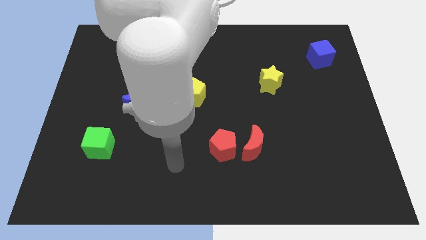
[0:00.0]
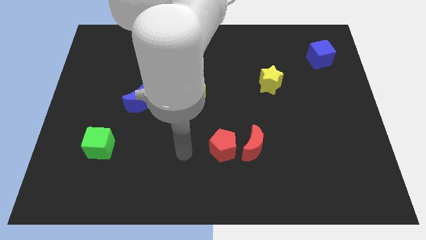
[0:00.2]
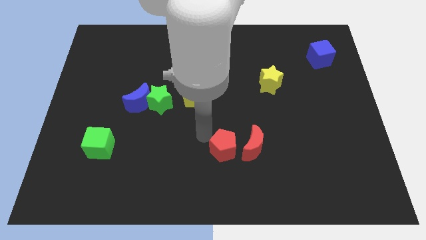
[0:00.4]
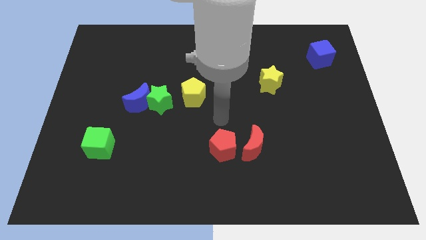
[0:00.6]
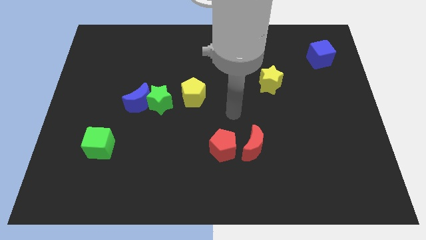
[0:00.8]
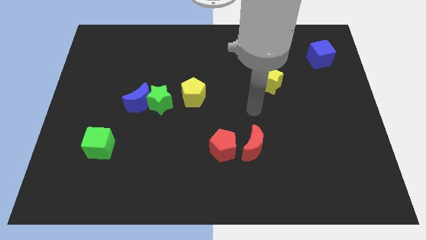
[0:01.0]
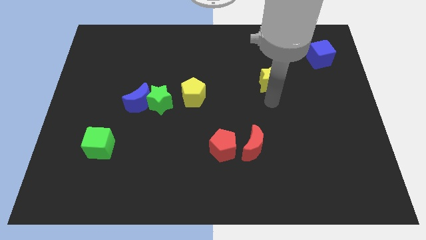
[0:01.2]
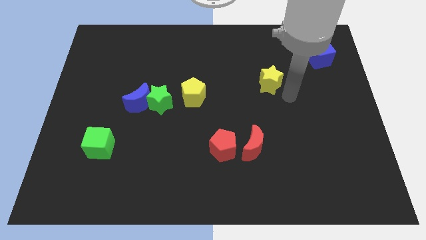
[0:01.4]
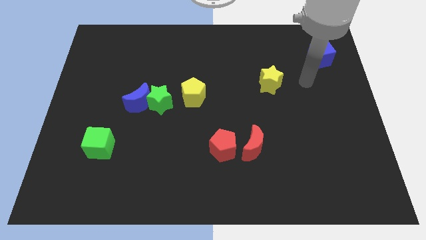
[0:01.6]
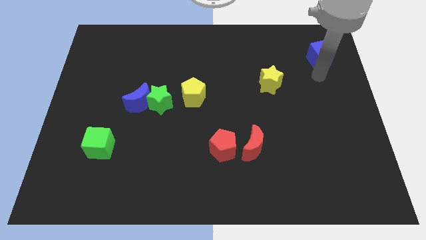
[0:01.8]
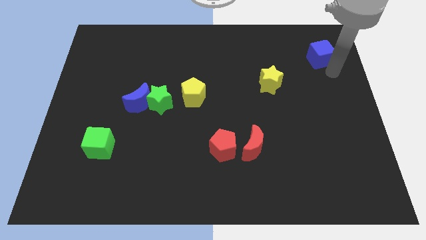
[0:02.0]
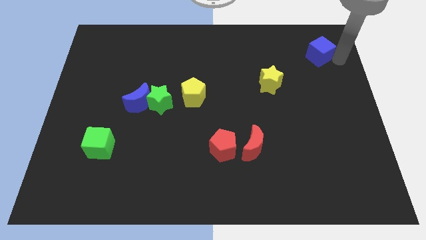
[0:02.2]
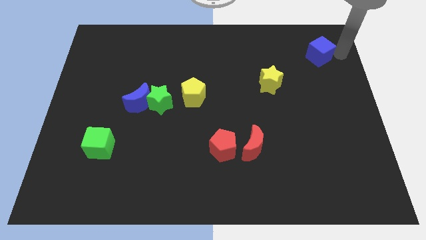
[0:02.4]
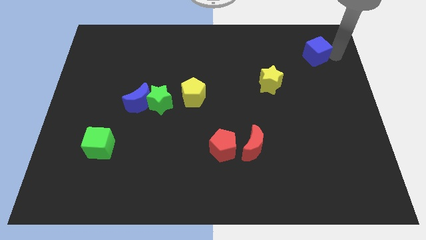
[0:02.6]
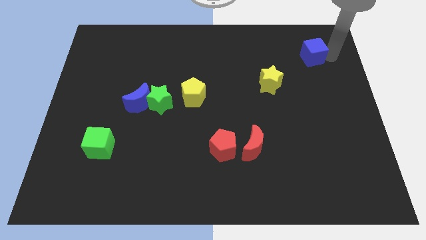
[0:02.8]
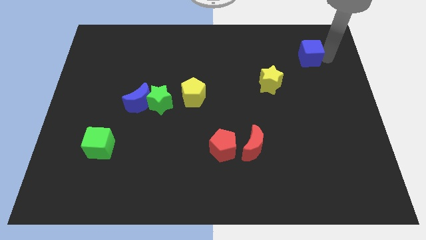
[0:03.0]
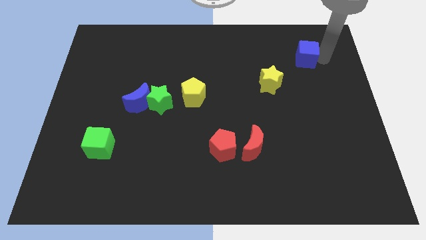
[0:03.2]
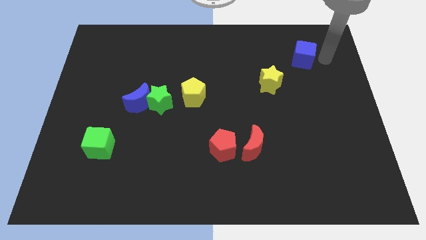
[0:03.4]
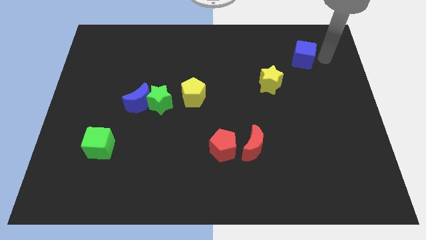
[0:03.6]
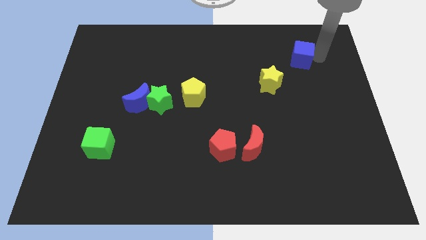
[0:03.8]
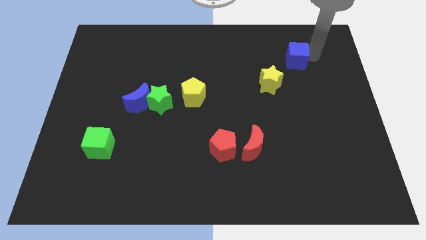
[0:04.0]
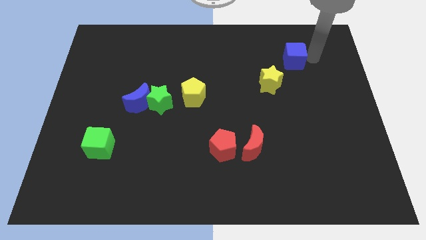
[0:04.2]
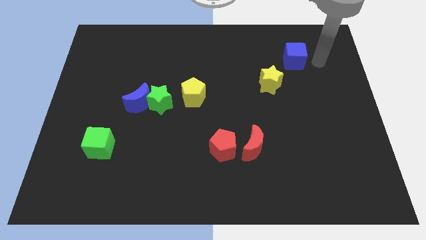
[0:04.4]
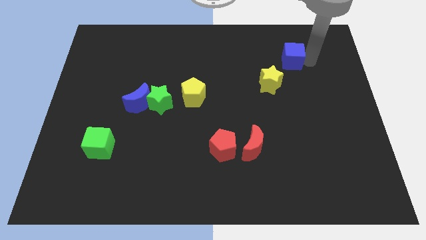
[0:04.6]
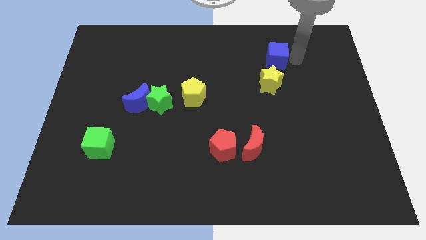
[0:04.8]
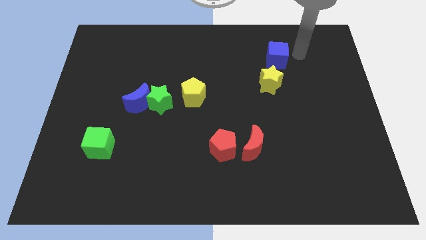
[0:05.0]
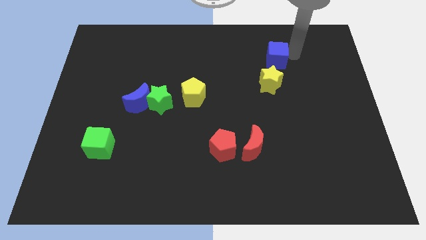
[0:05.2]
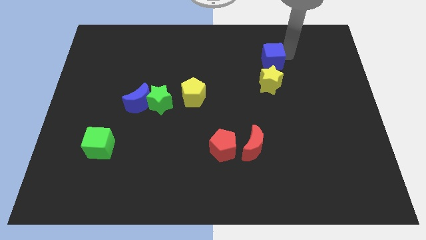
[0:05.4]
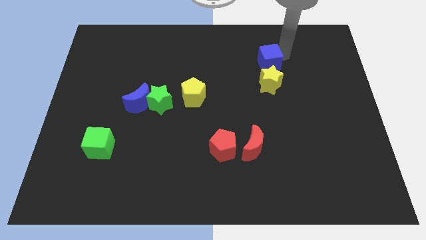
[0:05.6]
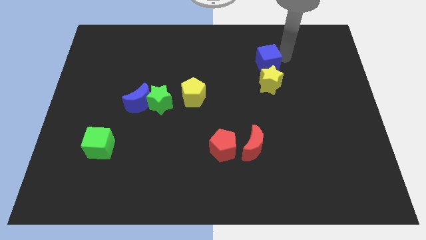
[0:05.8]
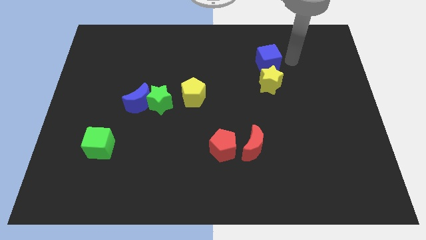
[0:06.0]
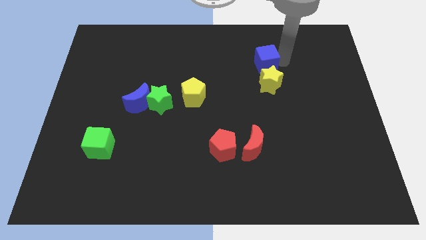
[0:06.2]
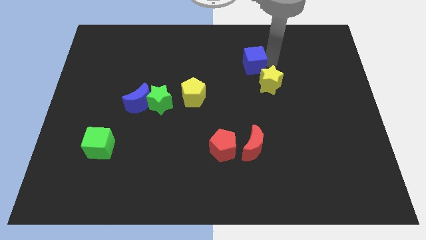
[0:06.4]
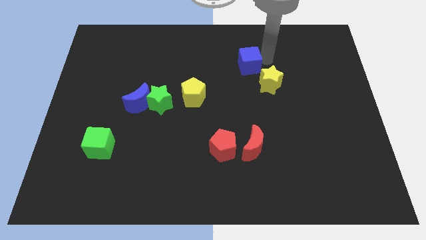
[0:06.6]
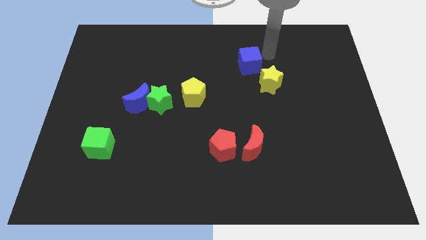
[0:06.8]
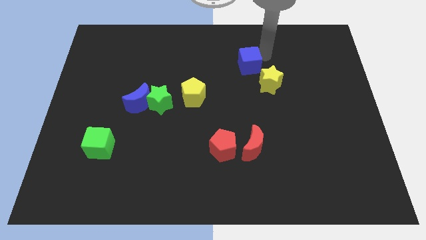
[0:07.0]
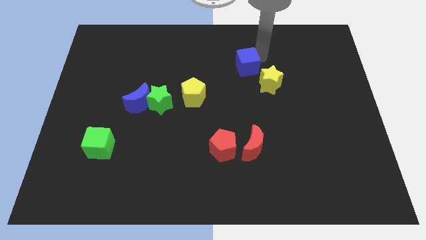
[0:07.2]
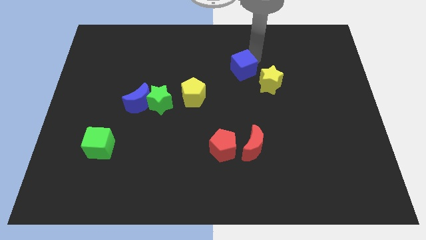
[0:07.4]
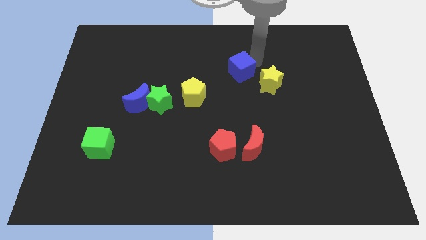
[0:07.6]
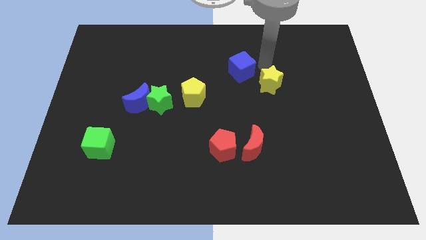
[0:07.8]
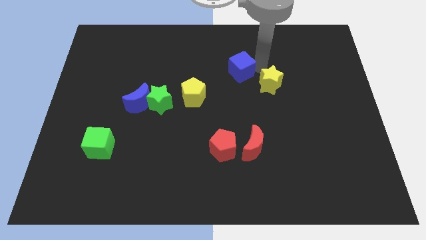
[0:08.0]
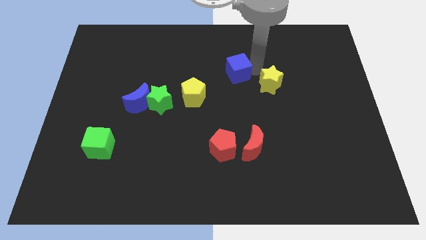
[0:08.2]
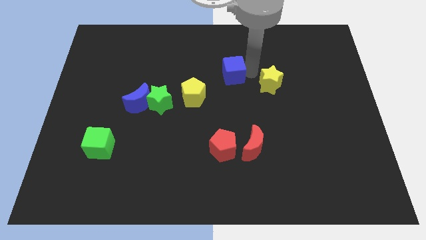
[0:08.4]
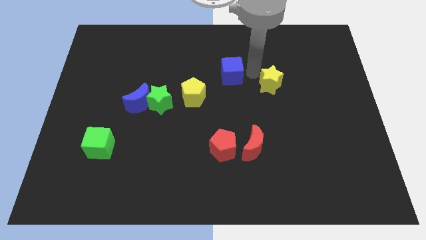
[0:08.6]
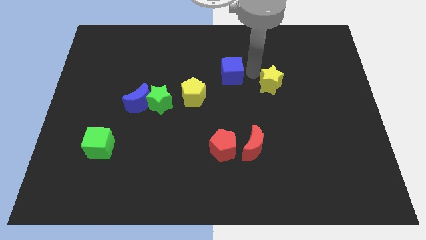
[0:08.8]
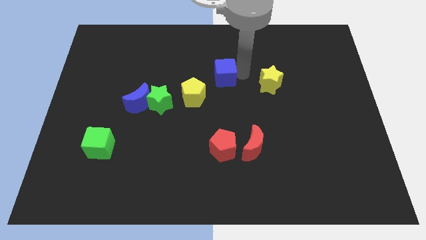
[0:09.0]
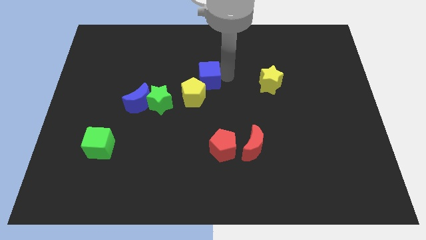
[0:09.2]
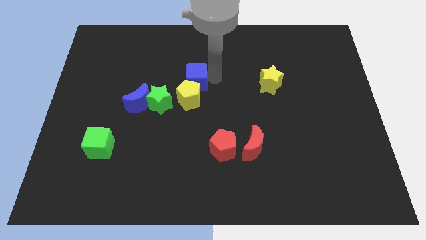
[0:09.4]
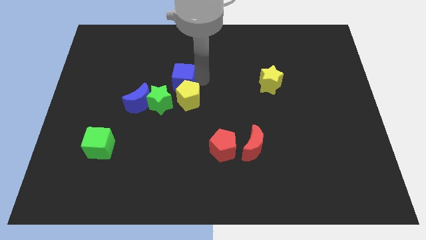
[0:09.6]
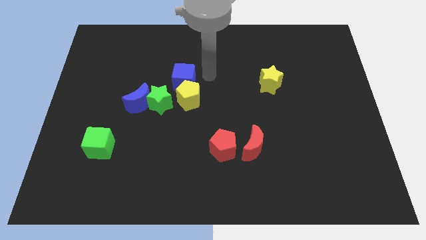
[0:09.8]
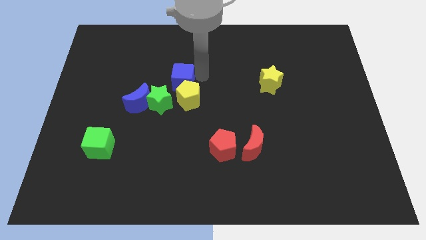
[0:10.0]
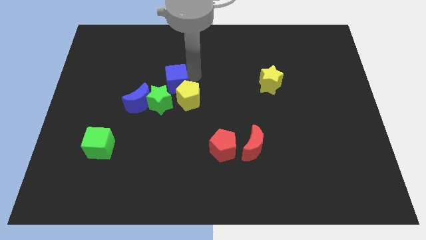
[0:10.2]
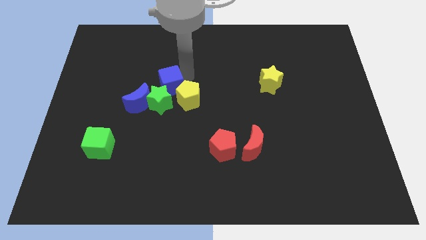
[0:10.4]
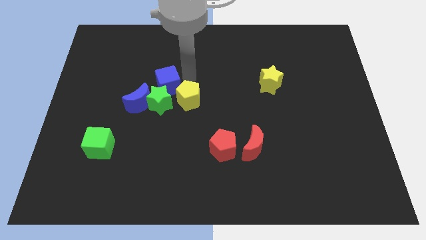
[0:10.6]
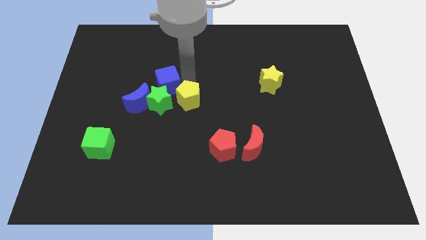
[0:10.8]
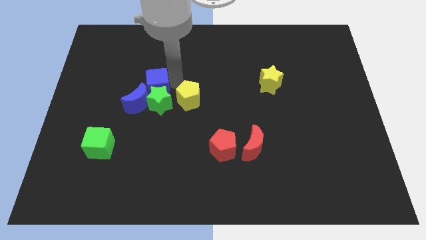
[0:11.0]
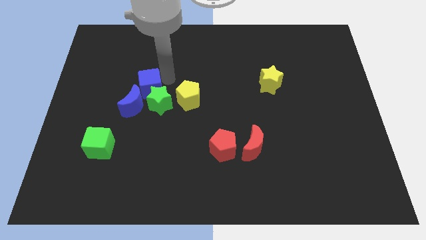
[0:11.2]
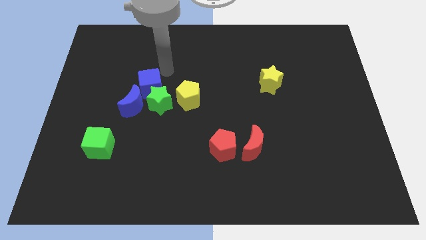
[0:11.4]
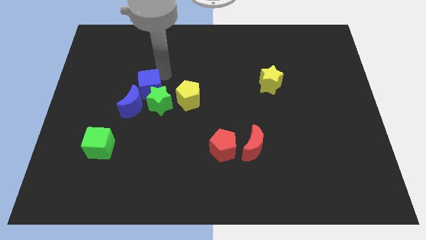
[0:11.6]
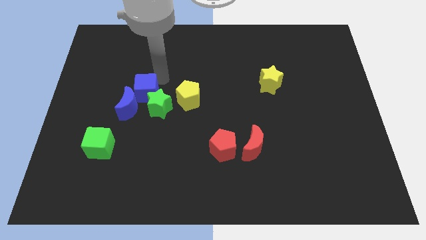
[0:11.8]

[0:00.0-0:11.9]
put the blue cube next to the blue moon

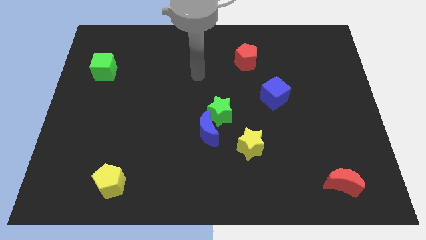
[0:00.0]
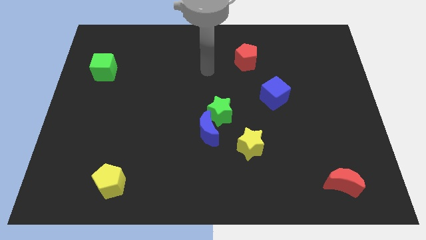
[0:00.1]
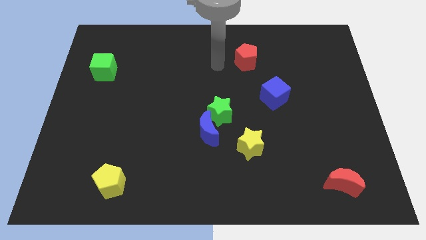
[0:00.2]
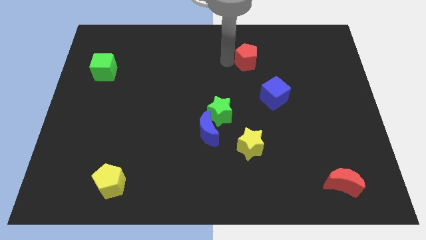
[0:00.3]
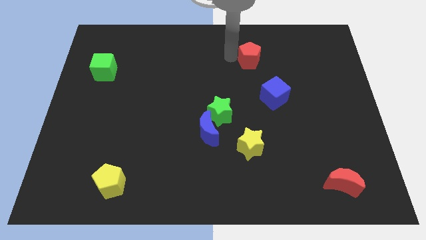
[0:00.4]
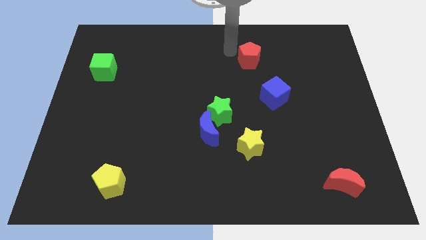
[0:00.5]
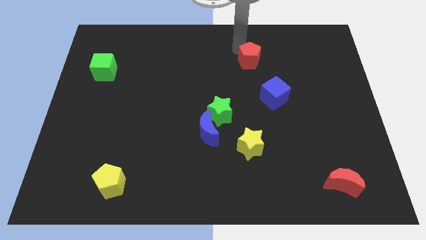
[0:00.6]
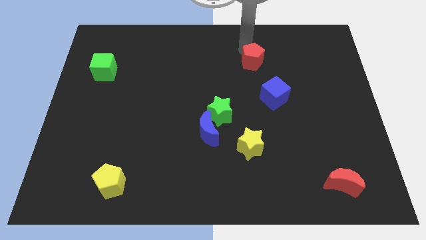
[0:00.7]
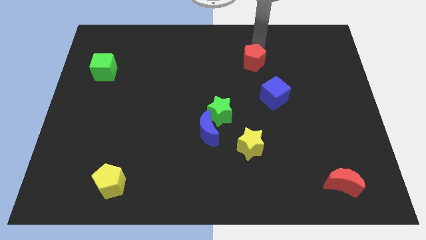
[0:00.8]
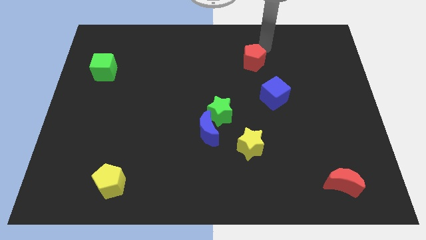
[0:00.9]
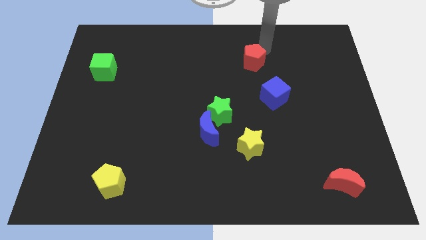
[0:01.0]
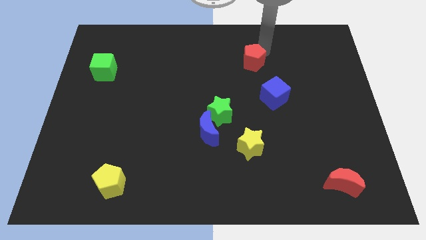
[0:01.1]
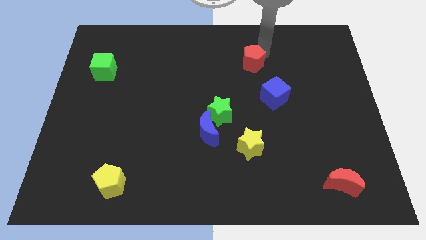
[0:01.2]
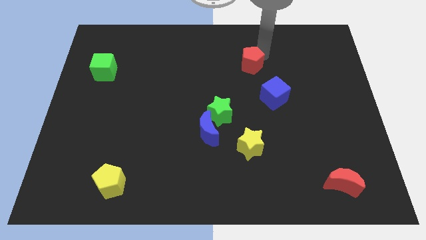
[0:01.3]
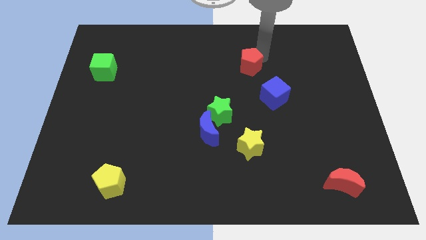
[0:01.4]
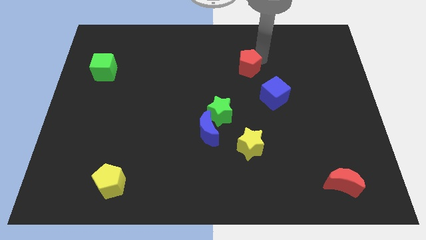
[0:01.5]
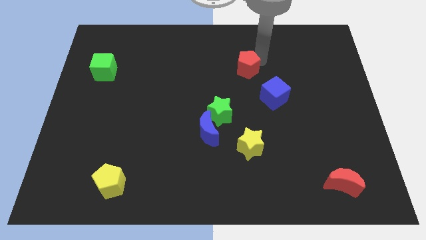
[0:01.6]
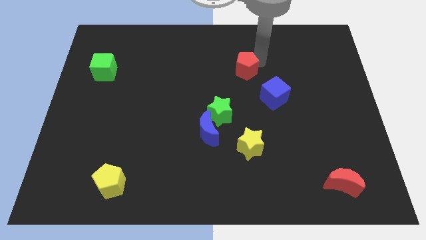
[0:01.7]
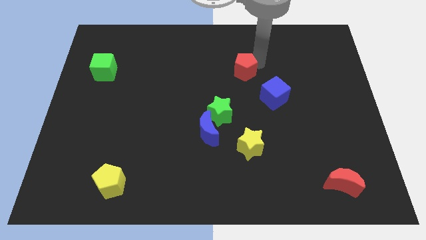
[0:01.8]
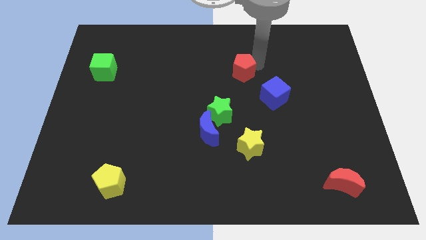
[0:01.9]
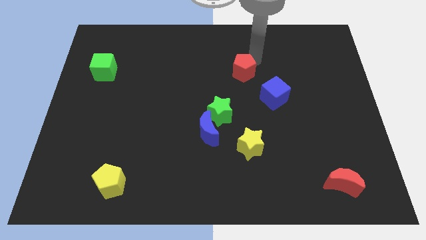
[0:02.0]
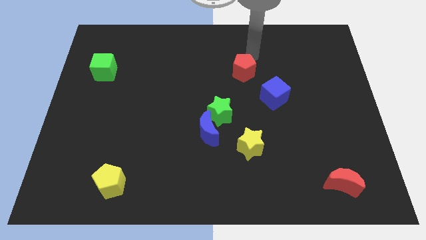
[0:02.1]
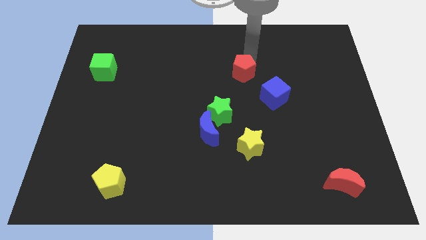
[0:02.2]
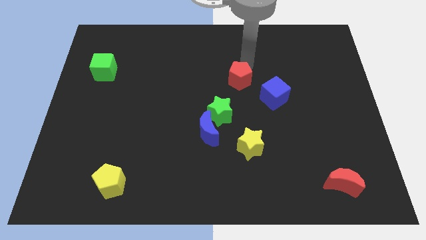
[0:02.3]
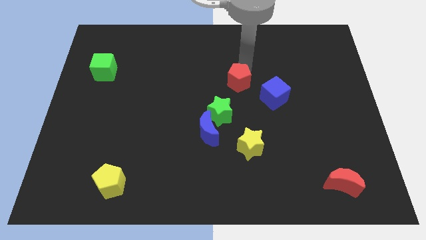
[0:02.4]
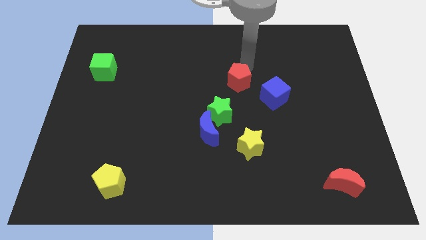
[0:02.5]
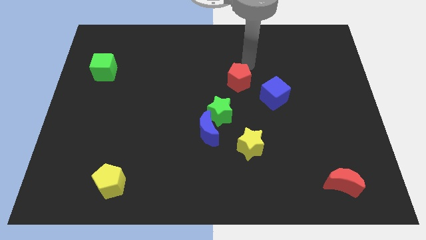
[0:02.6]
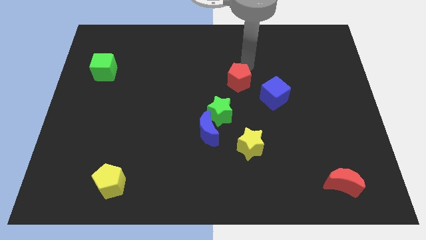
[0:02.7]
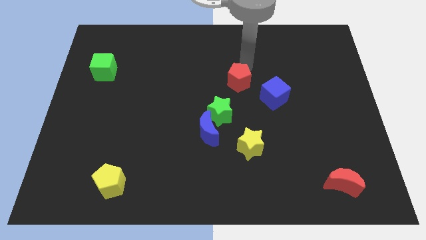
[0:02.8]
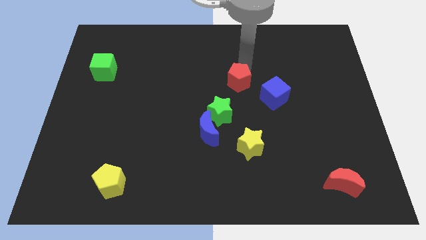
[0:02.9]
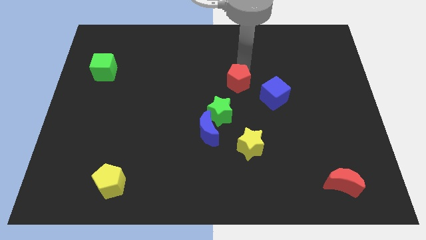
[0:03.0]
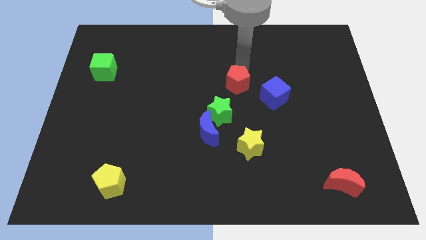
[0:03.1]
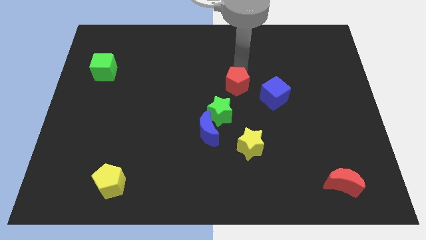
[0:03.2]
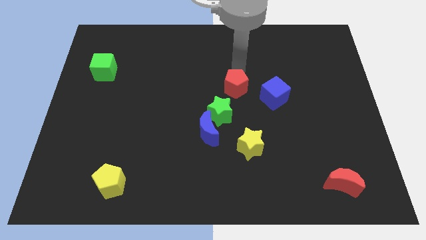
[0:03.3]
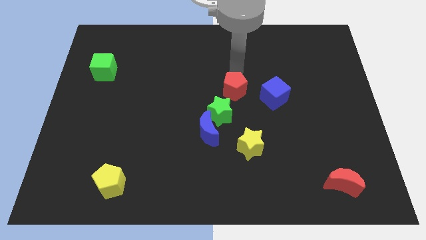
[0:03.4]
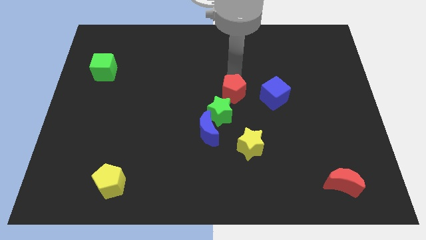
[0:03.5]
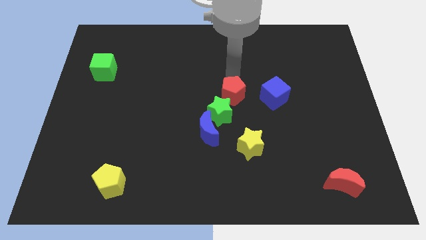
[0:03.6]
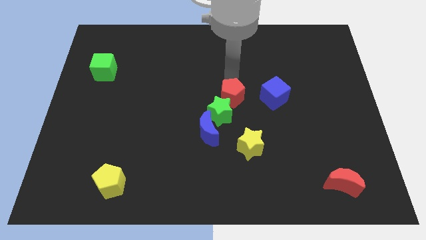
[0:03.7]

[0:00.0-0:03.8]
push the red pentagon next to the green star
